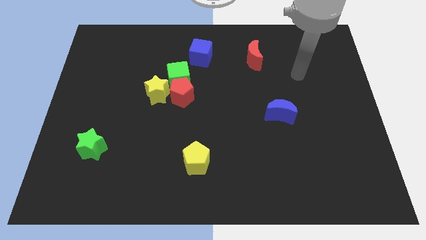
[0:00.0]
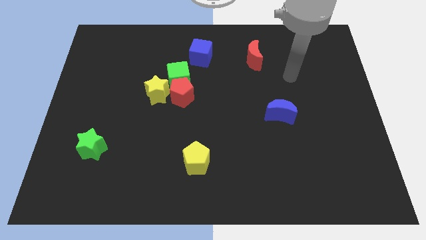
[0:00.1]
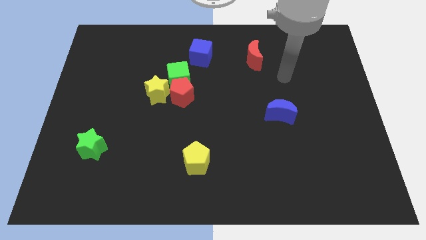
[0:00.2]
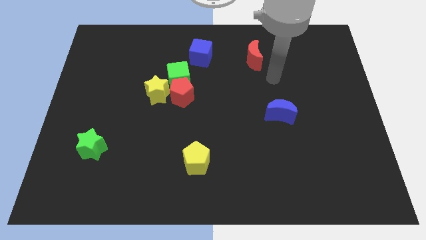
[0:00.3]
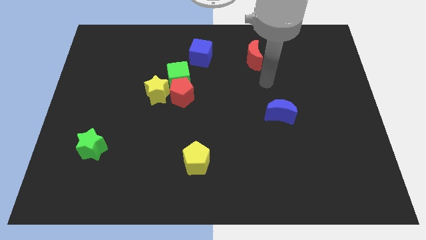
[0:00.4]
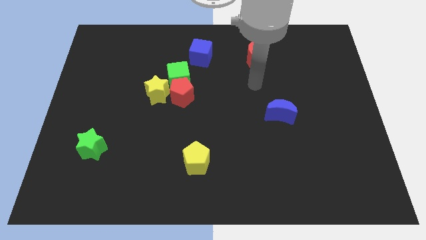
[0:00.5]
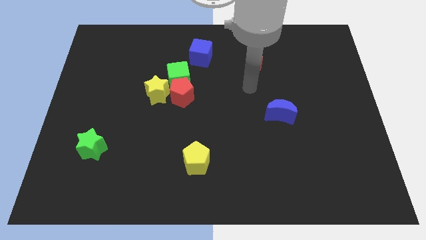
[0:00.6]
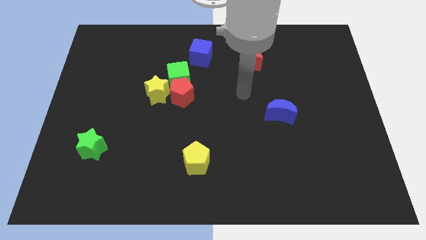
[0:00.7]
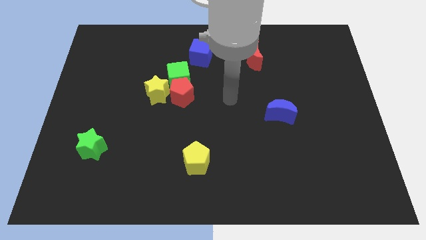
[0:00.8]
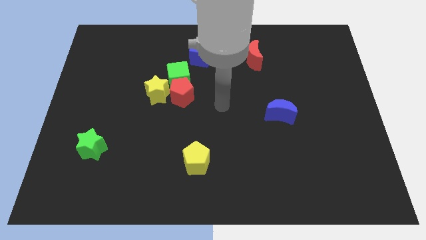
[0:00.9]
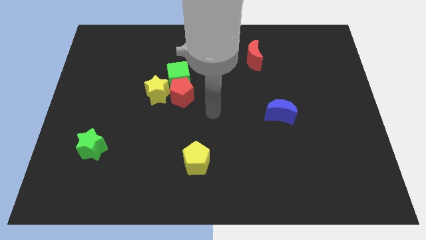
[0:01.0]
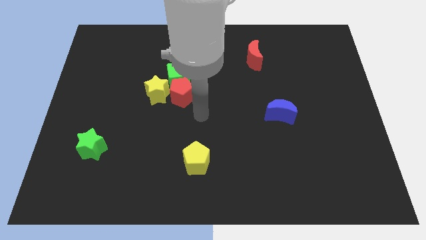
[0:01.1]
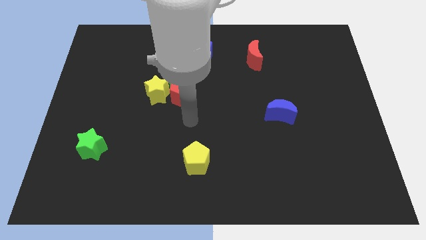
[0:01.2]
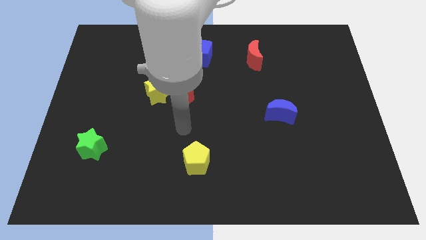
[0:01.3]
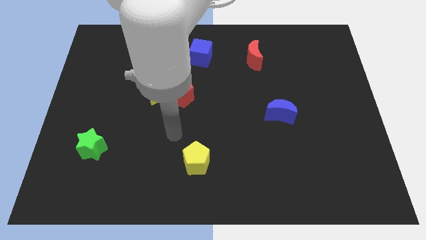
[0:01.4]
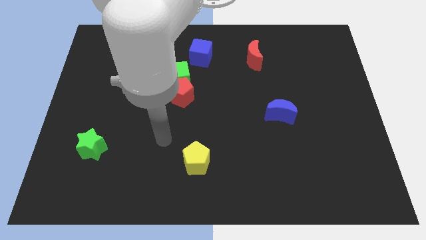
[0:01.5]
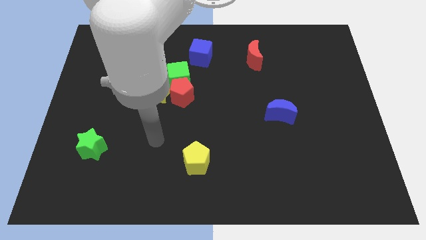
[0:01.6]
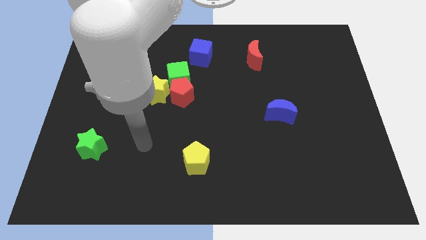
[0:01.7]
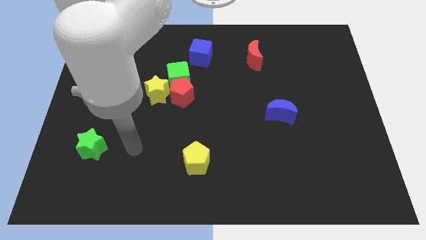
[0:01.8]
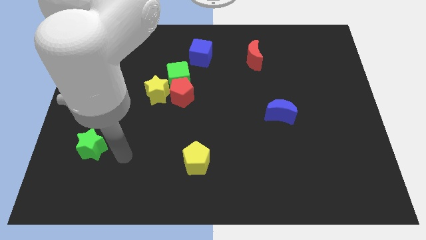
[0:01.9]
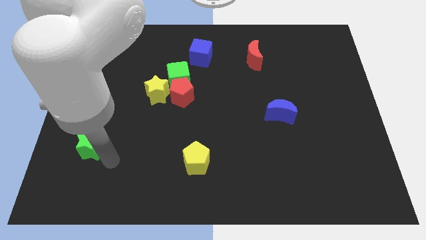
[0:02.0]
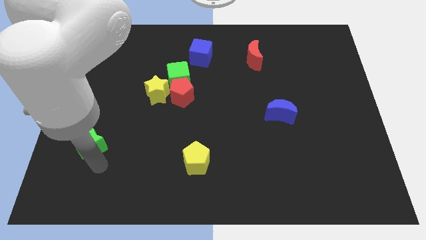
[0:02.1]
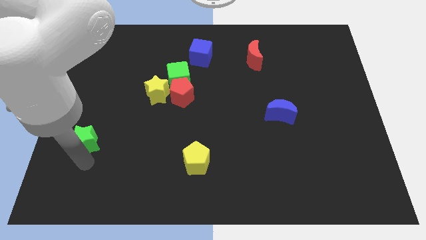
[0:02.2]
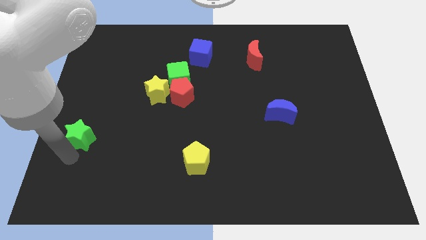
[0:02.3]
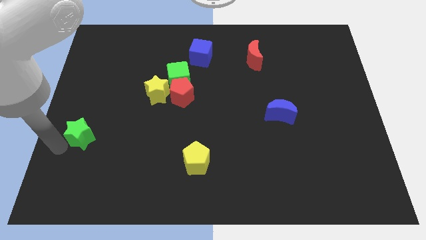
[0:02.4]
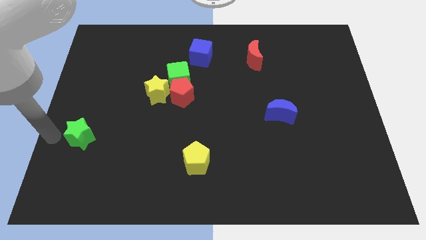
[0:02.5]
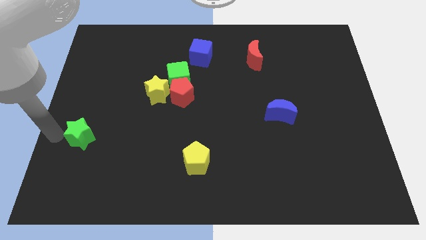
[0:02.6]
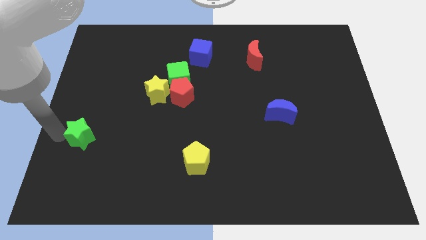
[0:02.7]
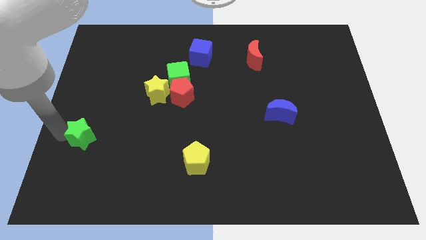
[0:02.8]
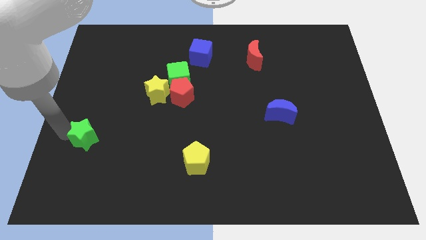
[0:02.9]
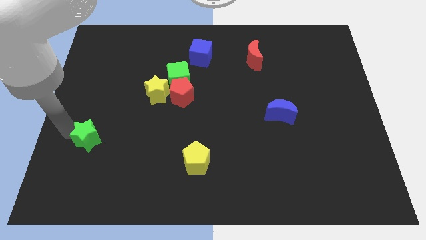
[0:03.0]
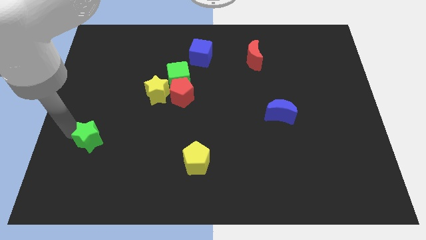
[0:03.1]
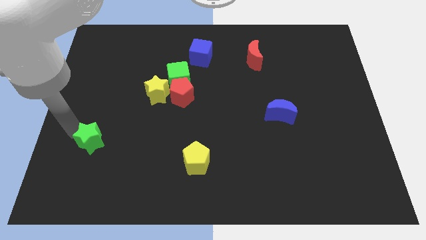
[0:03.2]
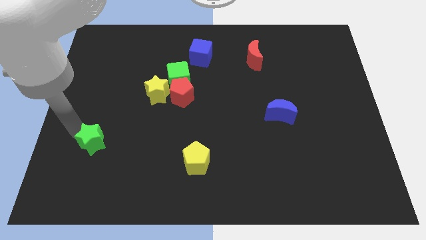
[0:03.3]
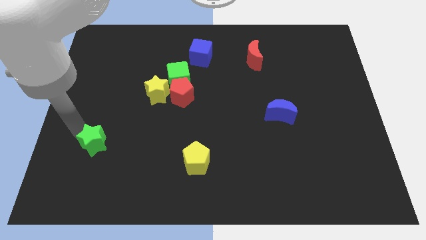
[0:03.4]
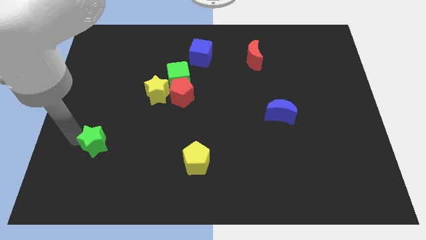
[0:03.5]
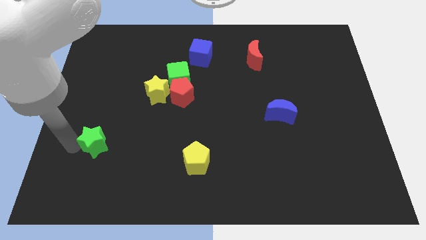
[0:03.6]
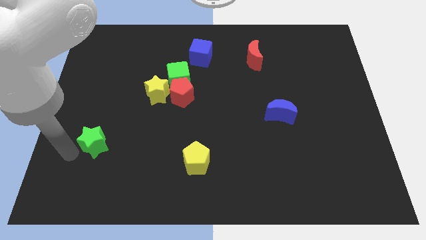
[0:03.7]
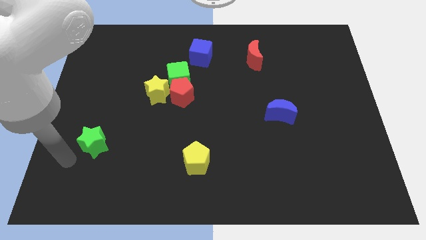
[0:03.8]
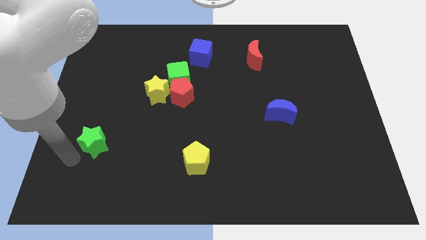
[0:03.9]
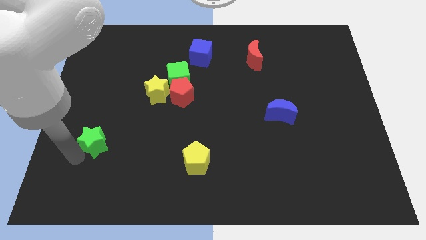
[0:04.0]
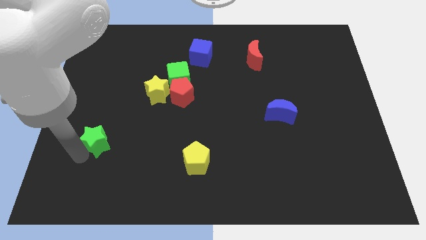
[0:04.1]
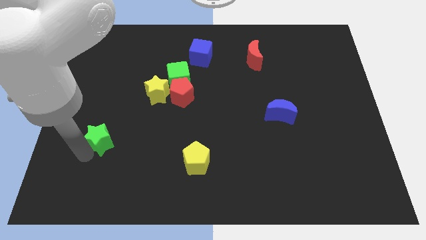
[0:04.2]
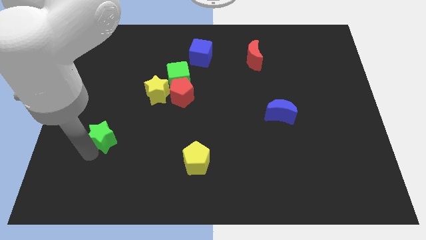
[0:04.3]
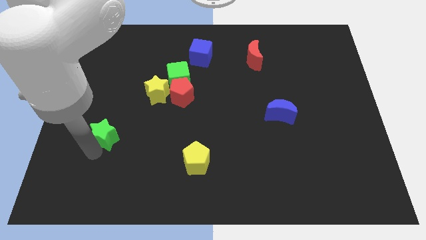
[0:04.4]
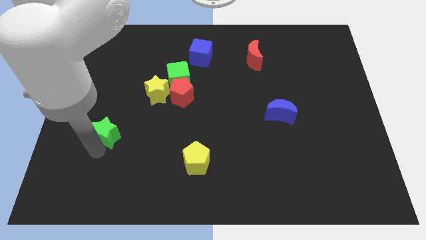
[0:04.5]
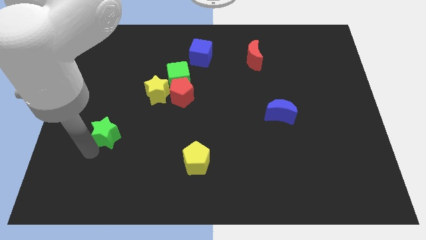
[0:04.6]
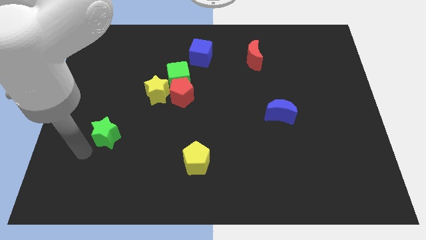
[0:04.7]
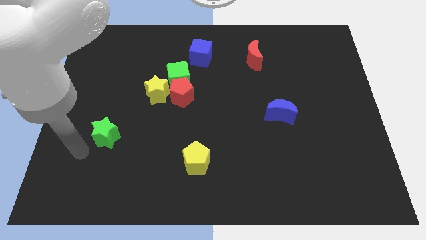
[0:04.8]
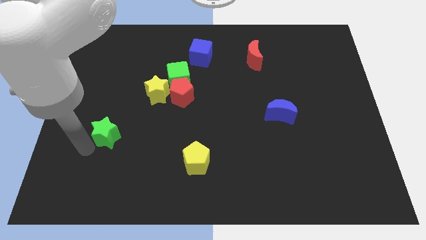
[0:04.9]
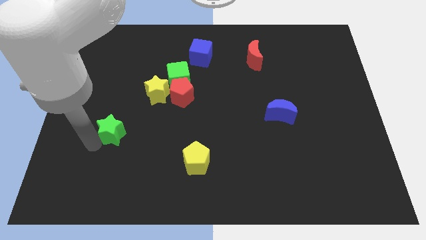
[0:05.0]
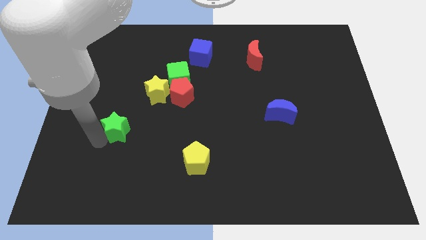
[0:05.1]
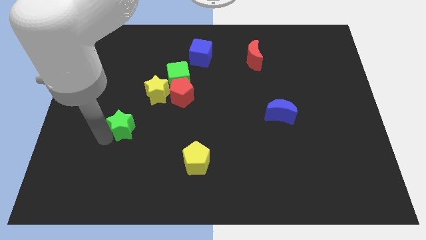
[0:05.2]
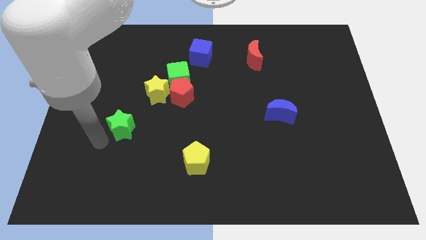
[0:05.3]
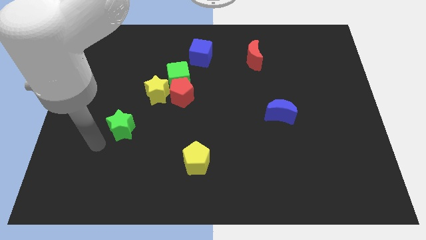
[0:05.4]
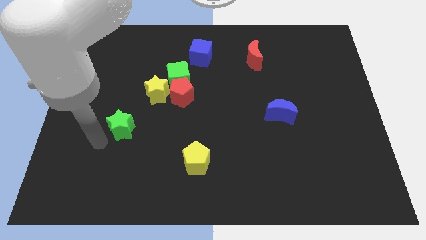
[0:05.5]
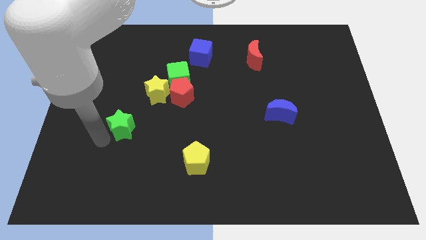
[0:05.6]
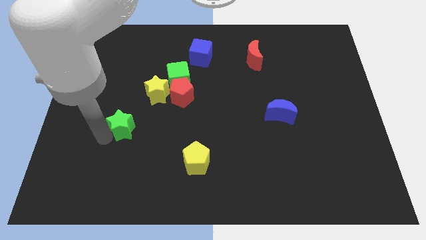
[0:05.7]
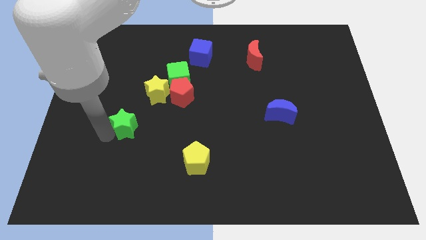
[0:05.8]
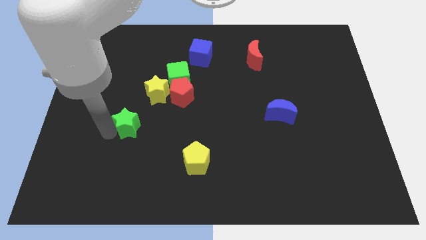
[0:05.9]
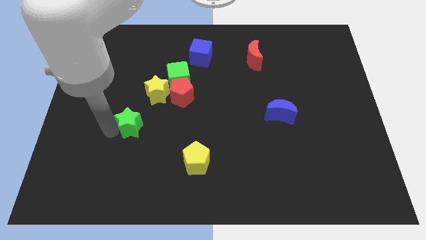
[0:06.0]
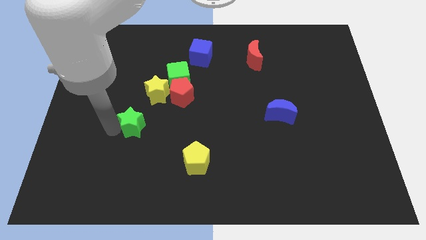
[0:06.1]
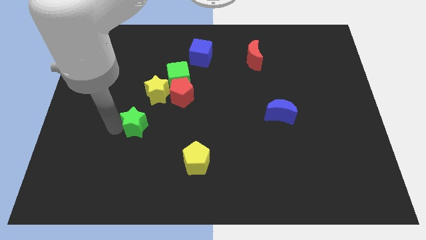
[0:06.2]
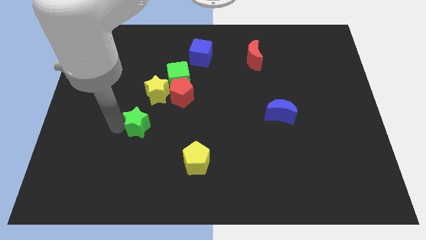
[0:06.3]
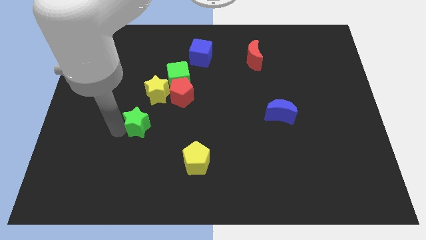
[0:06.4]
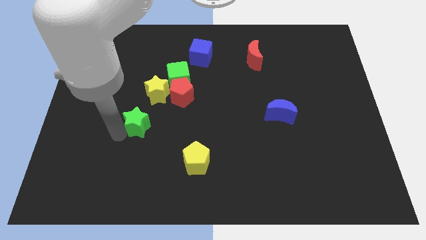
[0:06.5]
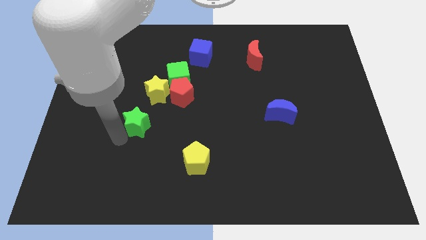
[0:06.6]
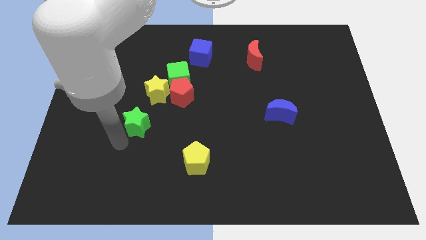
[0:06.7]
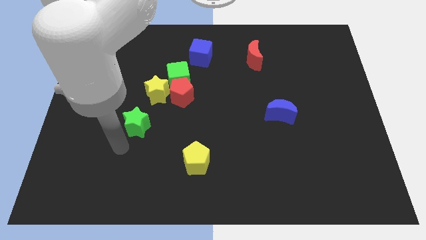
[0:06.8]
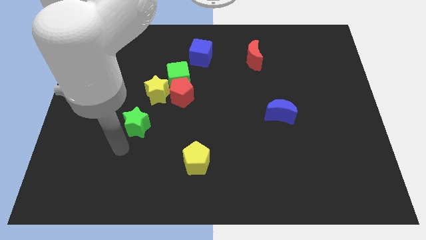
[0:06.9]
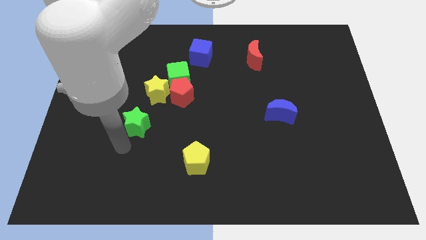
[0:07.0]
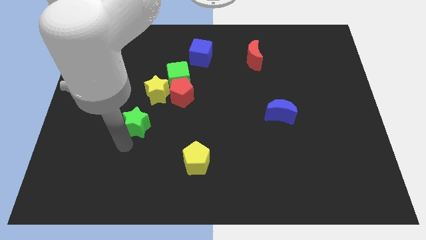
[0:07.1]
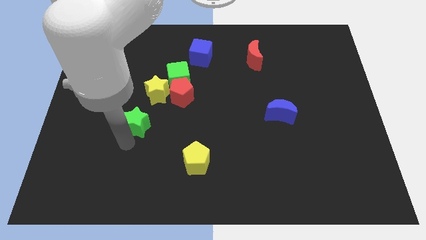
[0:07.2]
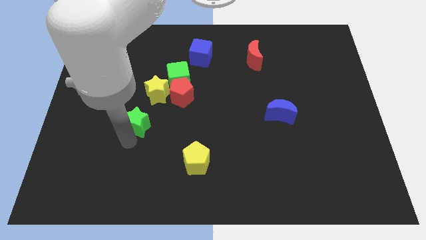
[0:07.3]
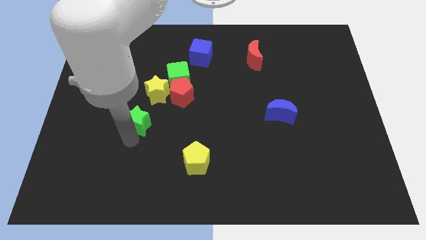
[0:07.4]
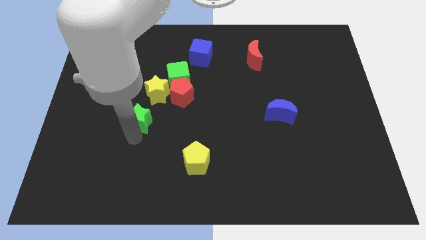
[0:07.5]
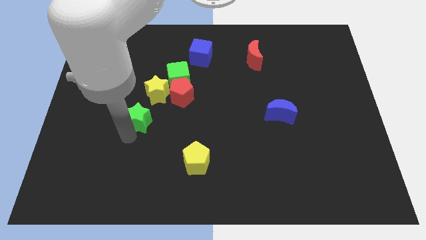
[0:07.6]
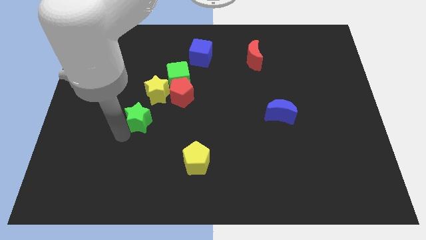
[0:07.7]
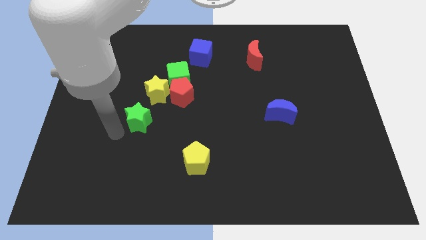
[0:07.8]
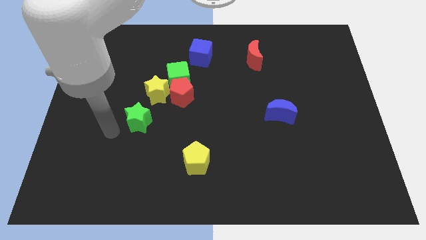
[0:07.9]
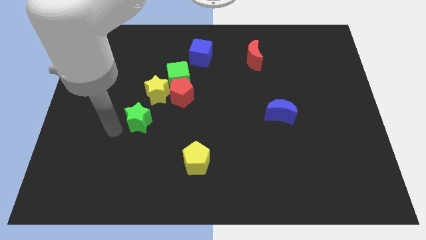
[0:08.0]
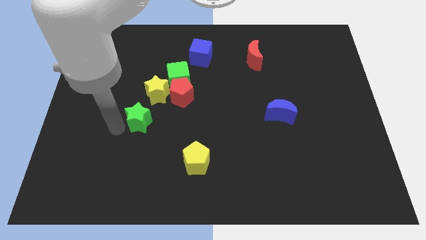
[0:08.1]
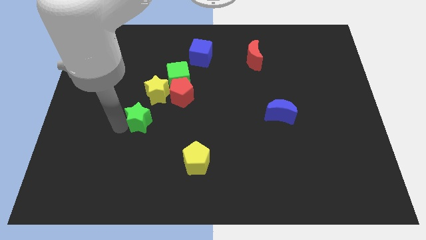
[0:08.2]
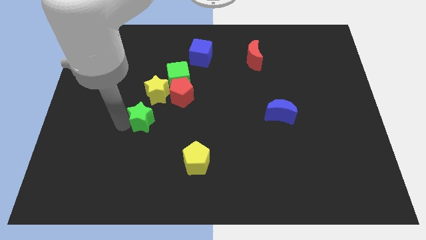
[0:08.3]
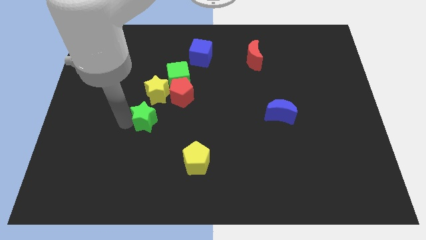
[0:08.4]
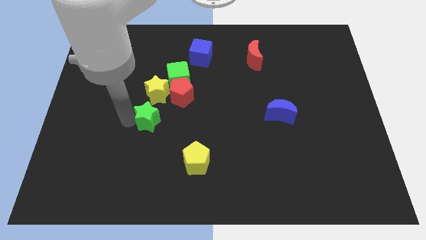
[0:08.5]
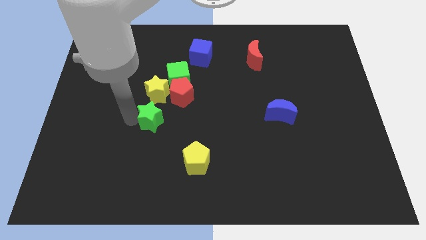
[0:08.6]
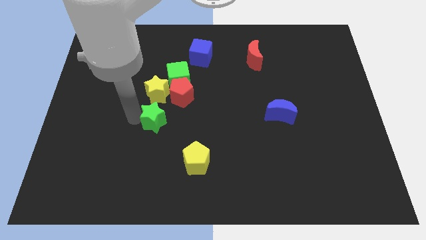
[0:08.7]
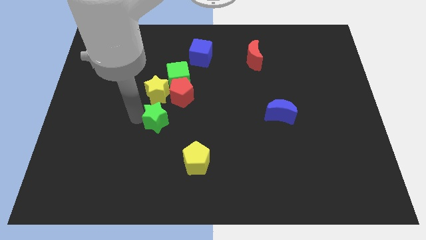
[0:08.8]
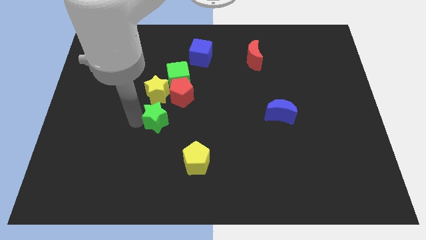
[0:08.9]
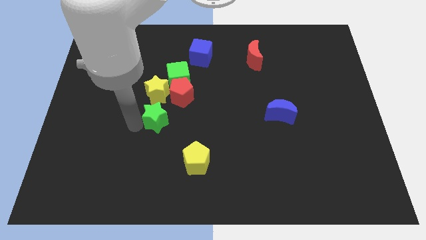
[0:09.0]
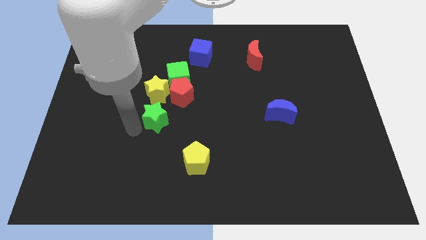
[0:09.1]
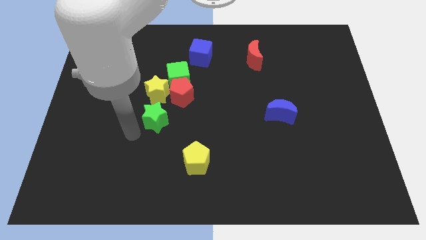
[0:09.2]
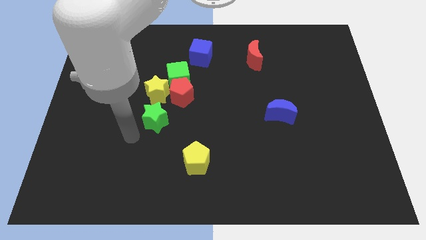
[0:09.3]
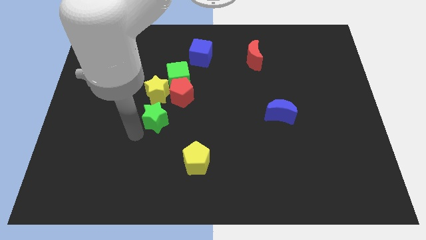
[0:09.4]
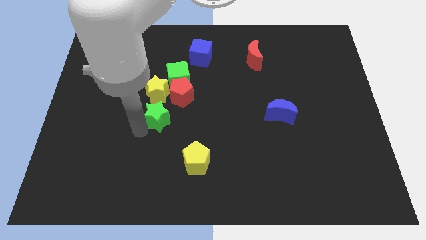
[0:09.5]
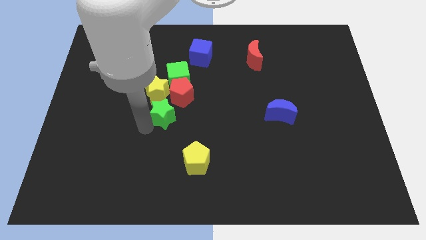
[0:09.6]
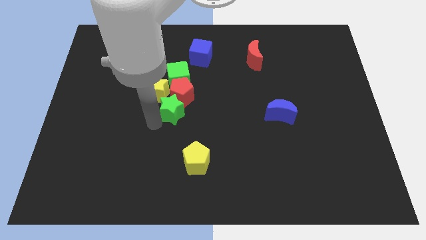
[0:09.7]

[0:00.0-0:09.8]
move the green star to the red pentagon
